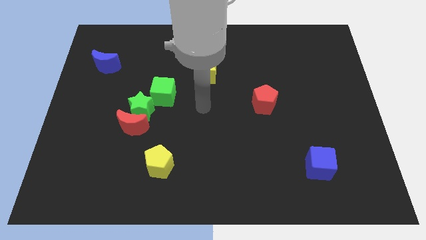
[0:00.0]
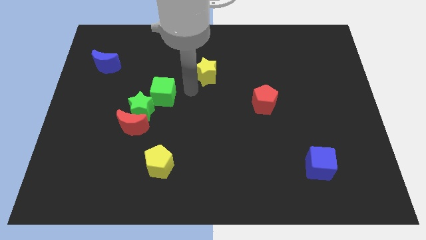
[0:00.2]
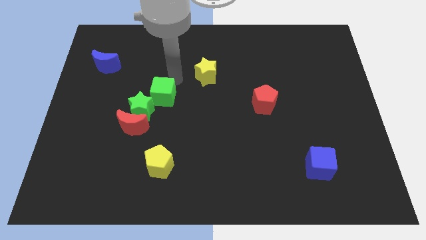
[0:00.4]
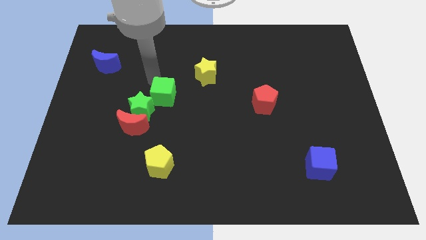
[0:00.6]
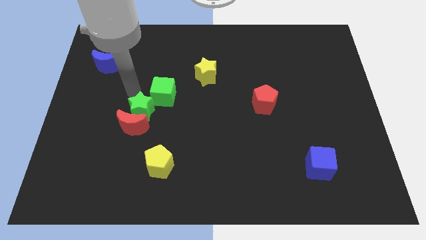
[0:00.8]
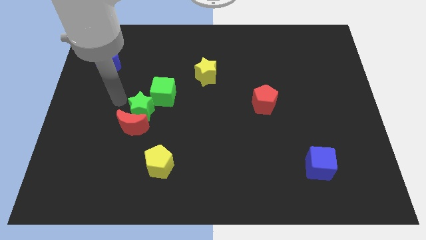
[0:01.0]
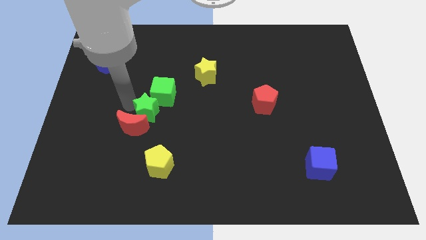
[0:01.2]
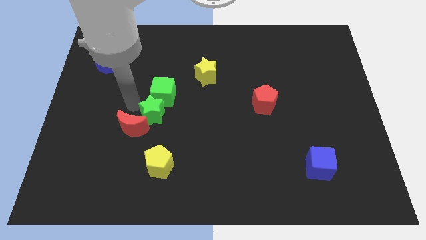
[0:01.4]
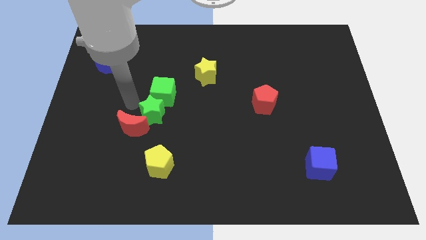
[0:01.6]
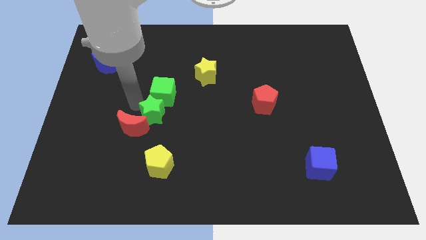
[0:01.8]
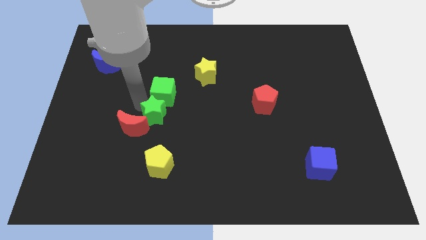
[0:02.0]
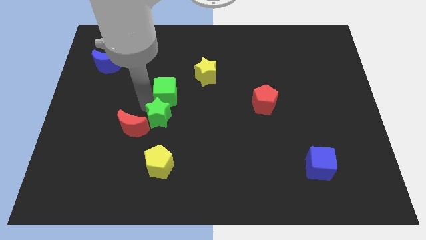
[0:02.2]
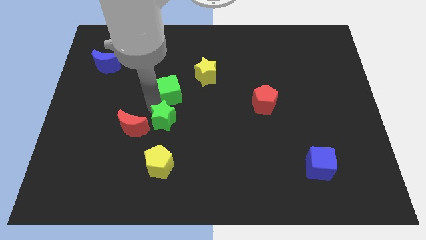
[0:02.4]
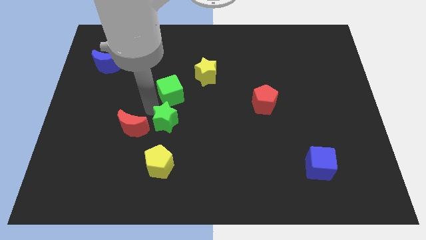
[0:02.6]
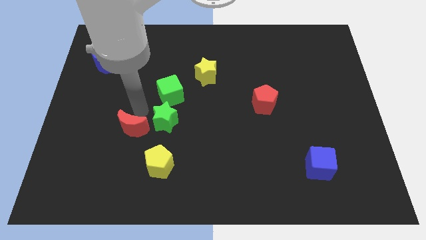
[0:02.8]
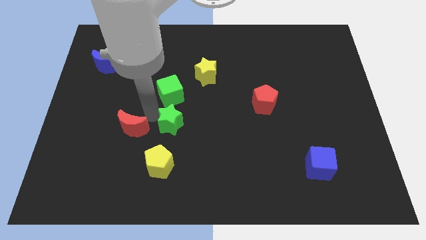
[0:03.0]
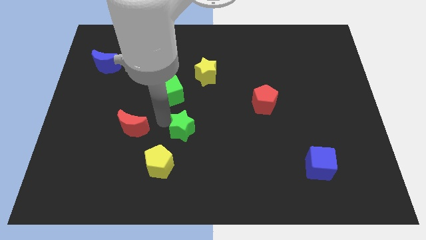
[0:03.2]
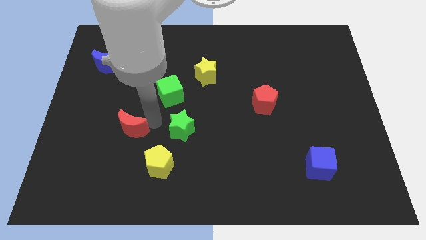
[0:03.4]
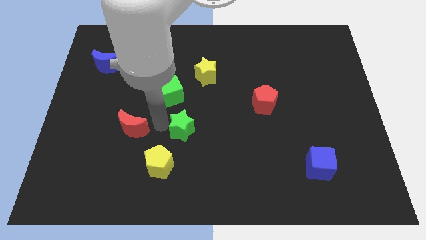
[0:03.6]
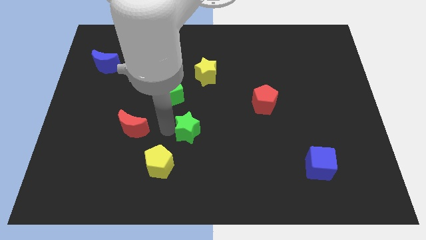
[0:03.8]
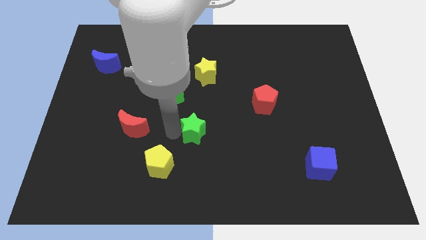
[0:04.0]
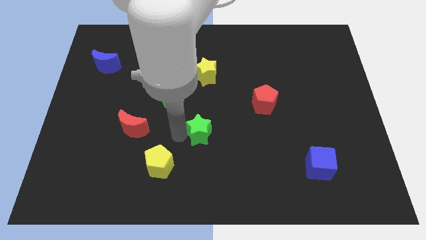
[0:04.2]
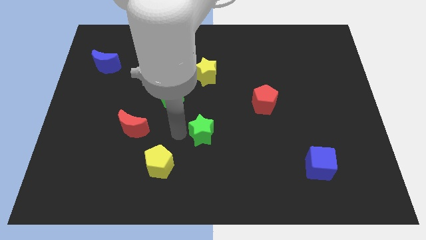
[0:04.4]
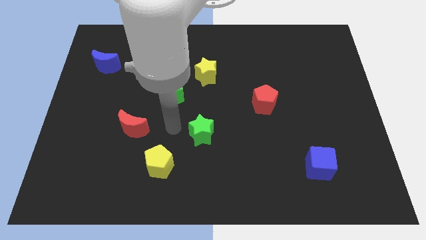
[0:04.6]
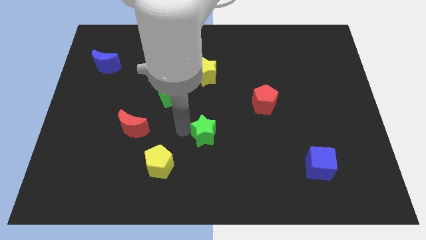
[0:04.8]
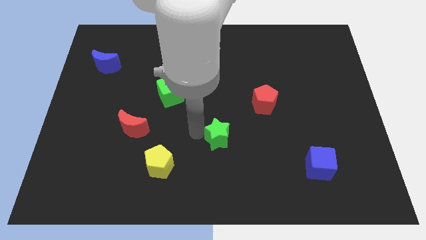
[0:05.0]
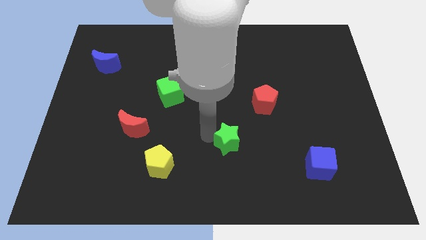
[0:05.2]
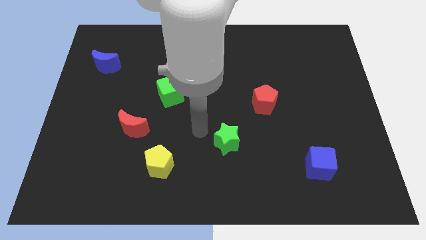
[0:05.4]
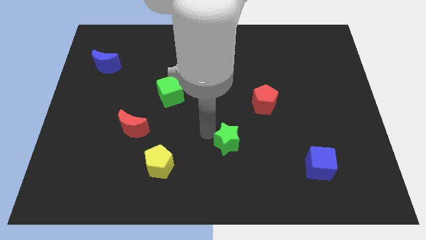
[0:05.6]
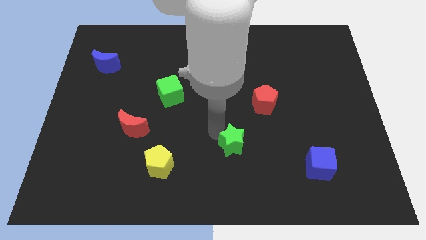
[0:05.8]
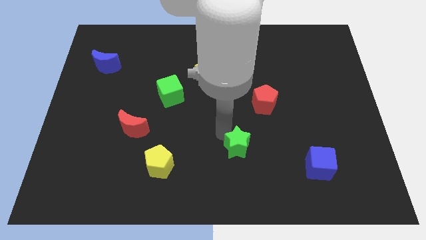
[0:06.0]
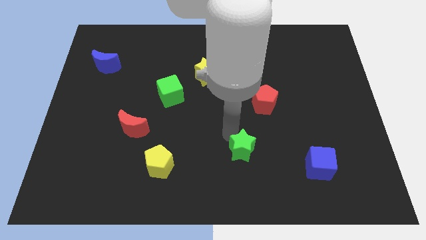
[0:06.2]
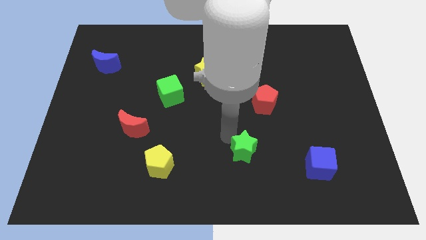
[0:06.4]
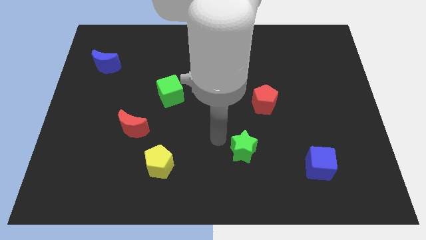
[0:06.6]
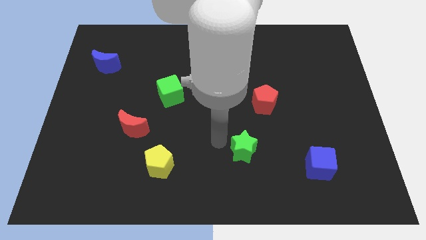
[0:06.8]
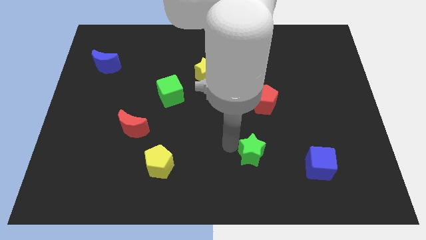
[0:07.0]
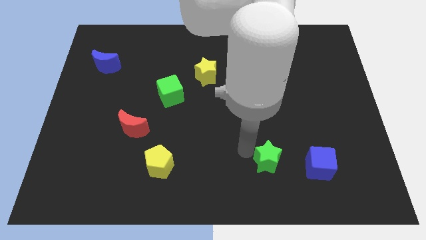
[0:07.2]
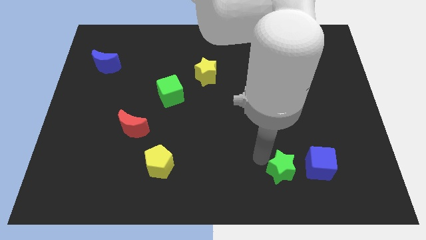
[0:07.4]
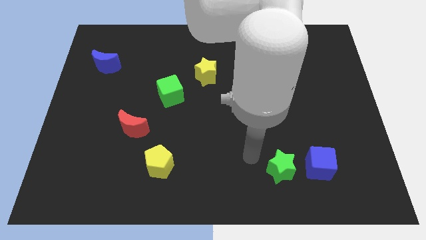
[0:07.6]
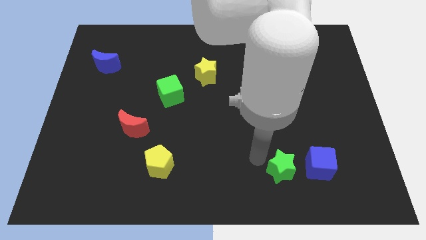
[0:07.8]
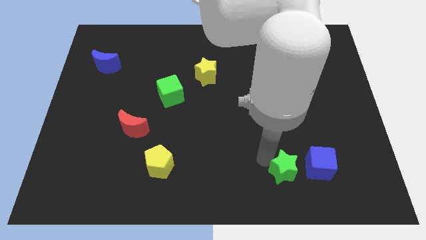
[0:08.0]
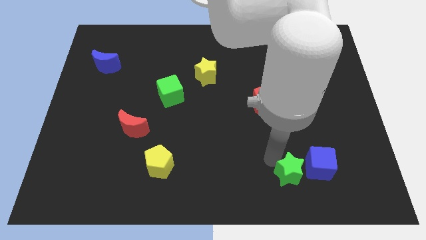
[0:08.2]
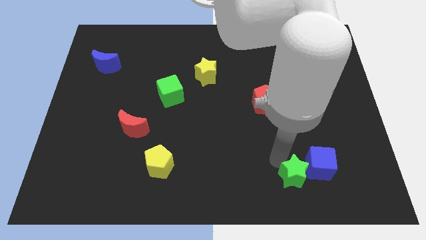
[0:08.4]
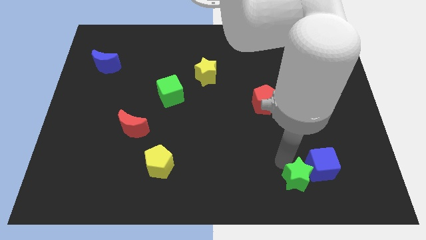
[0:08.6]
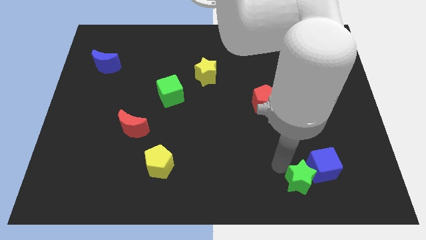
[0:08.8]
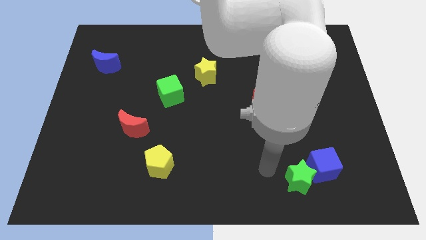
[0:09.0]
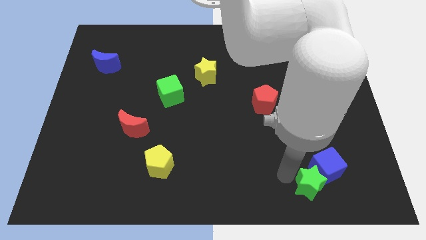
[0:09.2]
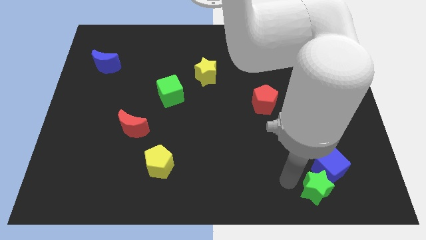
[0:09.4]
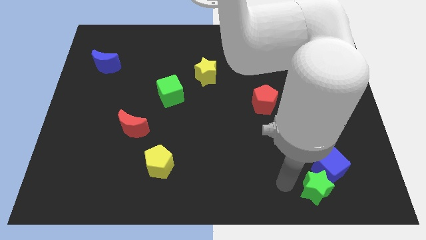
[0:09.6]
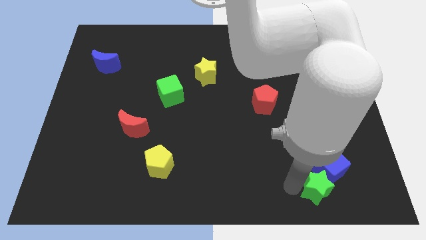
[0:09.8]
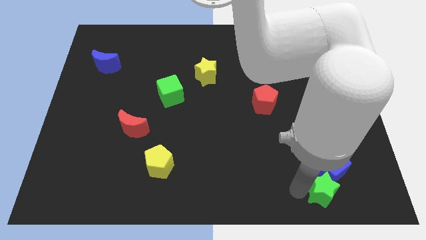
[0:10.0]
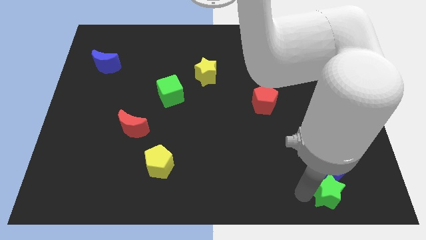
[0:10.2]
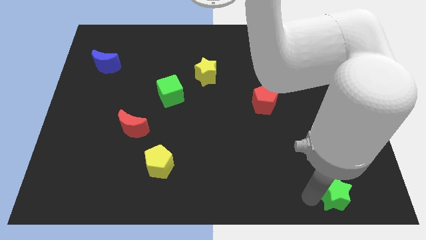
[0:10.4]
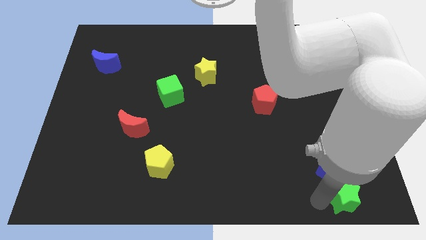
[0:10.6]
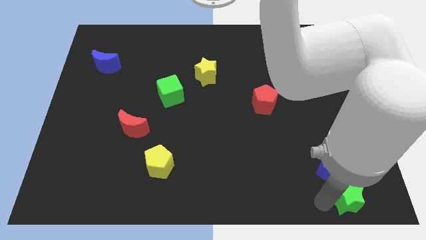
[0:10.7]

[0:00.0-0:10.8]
move the green star to the bottom right

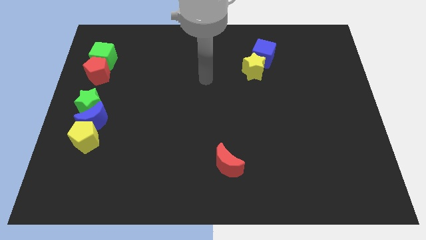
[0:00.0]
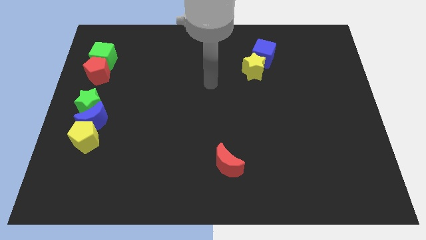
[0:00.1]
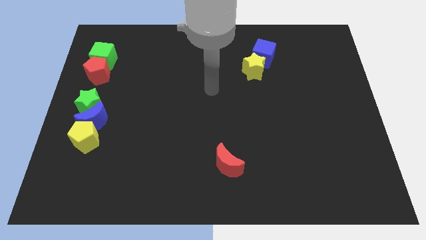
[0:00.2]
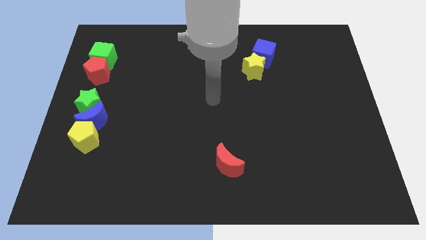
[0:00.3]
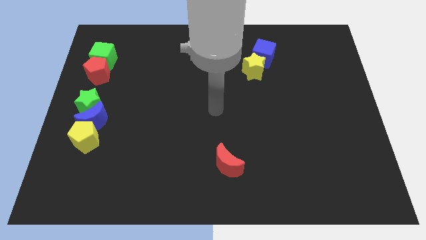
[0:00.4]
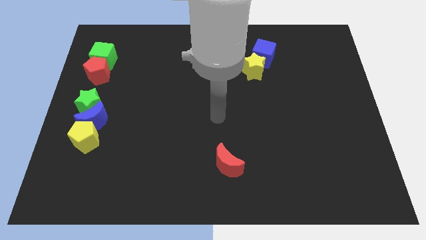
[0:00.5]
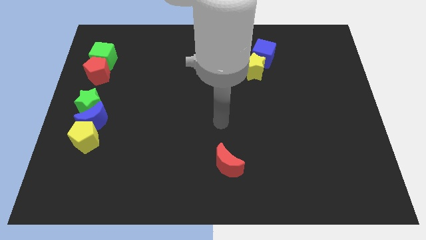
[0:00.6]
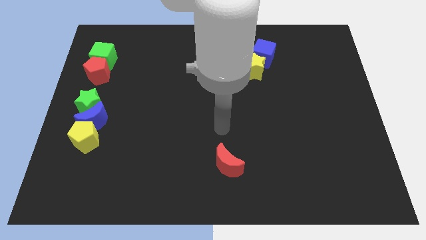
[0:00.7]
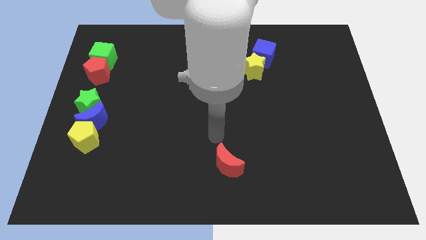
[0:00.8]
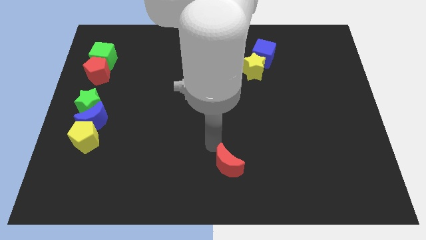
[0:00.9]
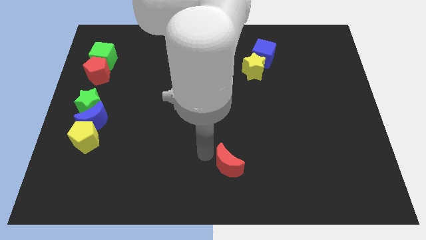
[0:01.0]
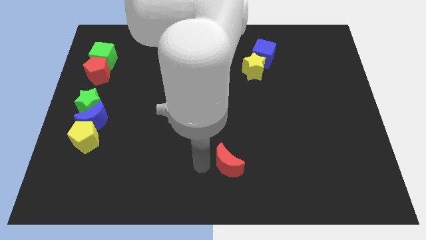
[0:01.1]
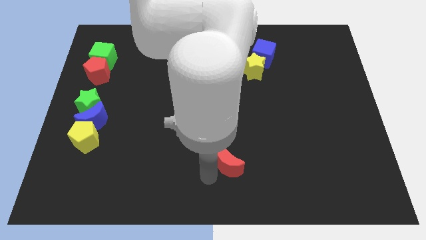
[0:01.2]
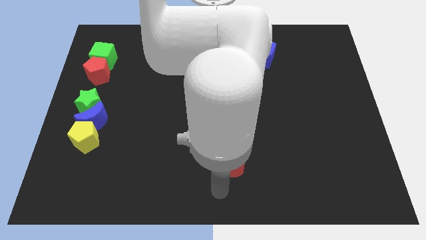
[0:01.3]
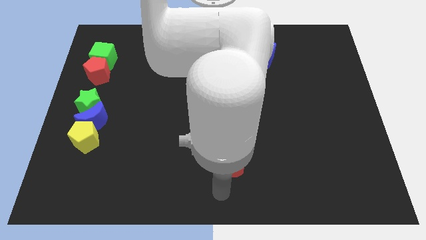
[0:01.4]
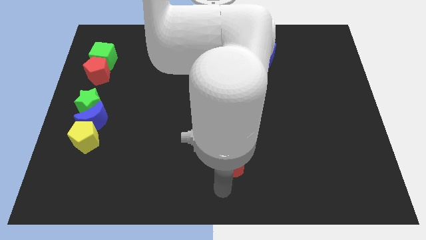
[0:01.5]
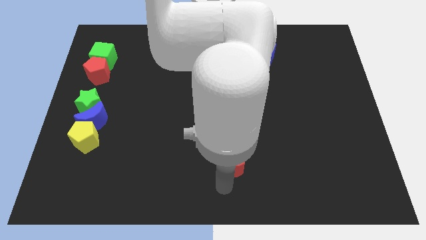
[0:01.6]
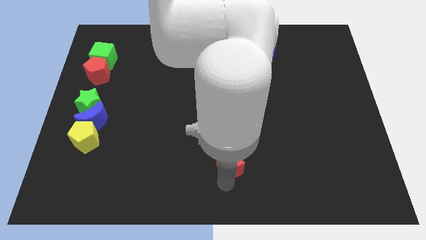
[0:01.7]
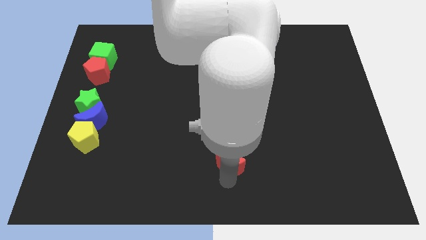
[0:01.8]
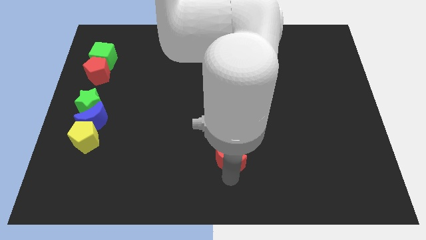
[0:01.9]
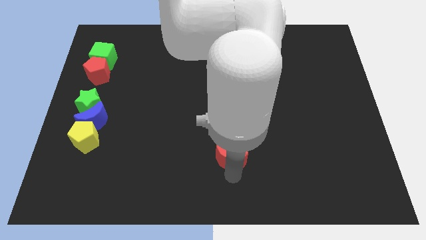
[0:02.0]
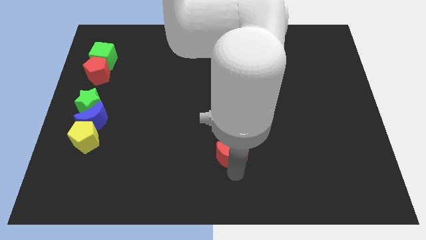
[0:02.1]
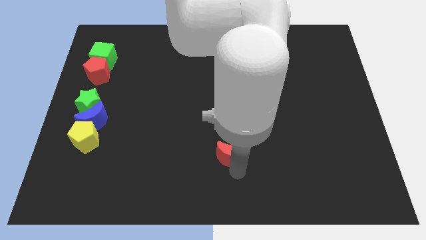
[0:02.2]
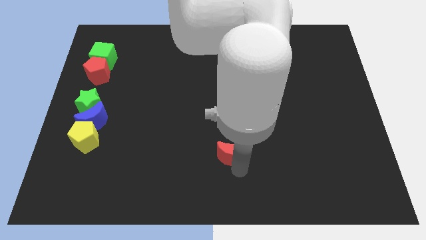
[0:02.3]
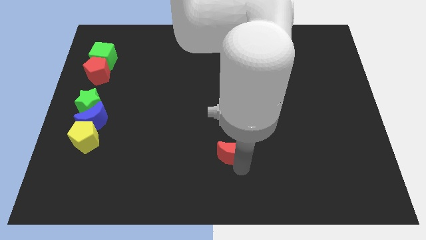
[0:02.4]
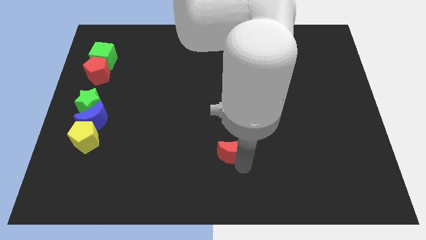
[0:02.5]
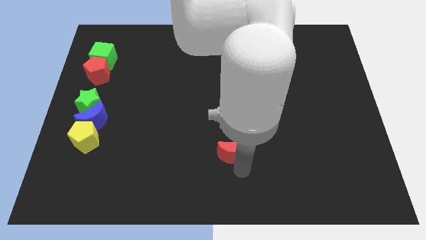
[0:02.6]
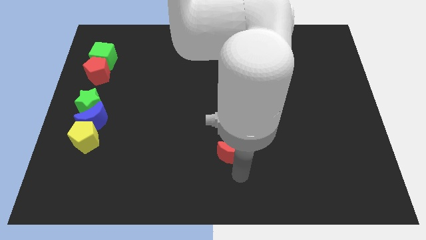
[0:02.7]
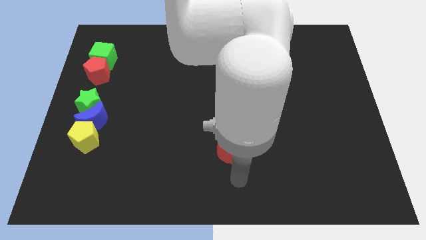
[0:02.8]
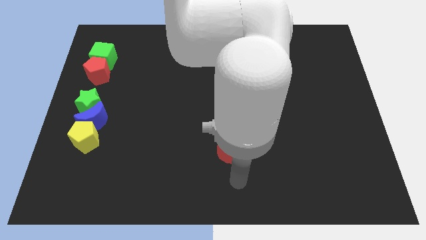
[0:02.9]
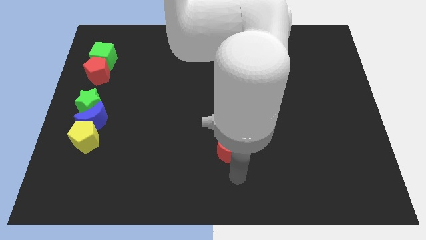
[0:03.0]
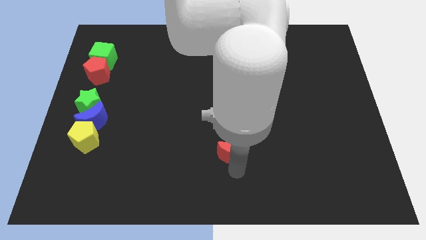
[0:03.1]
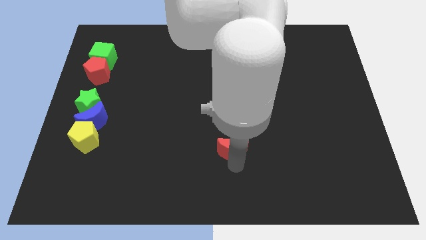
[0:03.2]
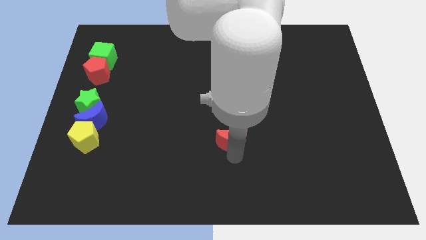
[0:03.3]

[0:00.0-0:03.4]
slide the red moon to the middle of the board
